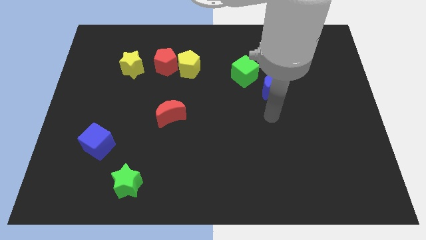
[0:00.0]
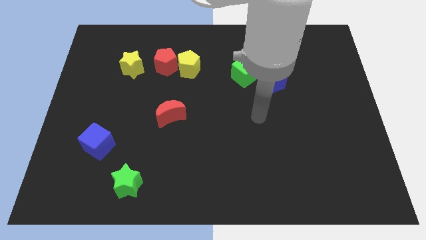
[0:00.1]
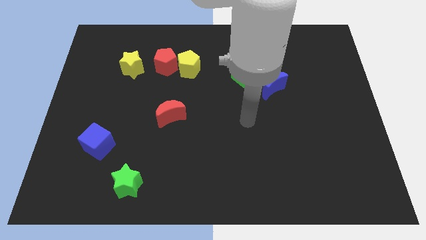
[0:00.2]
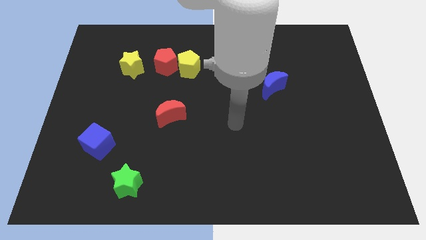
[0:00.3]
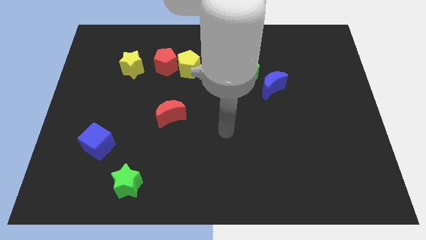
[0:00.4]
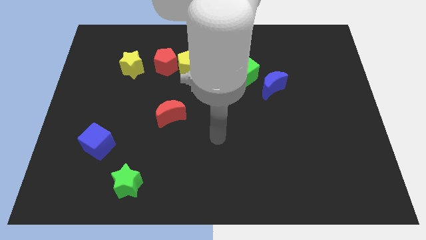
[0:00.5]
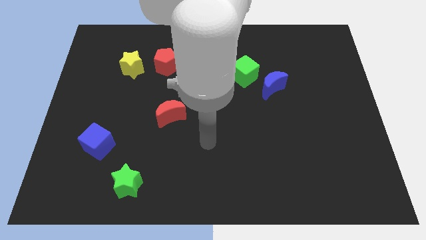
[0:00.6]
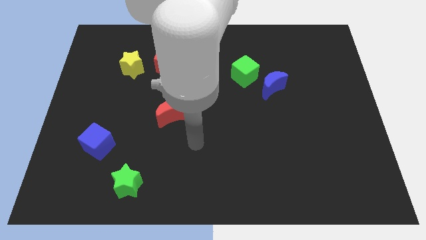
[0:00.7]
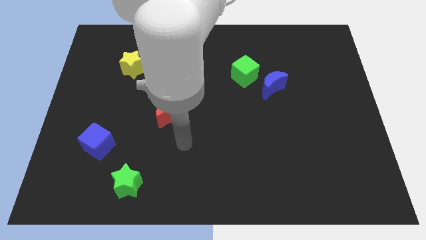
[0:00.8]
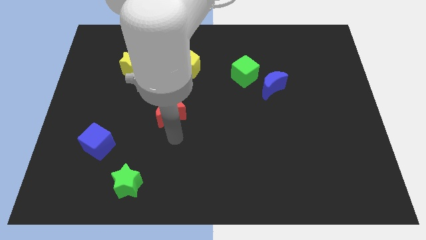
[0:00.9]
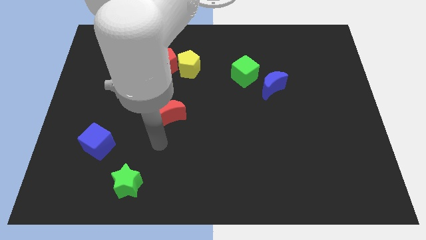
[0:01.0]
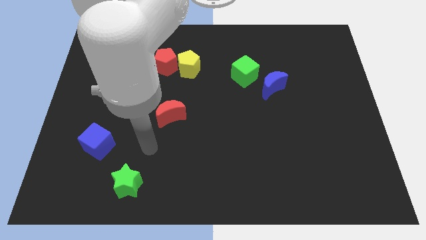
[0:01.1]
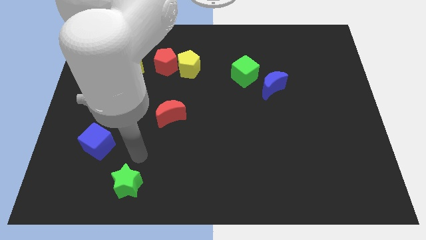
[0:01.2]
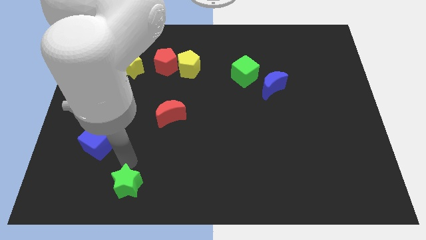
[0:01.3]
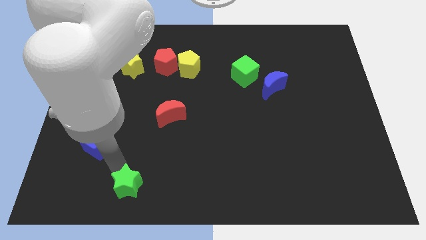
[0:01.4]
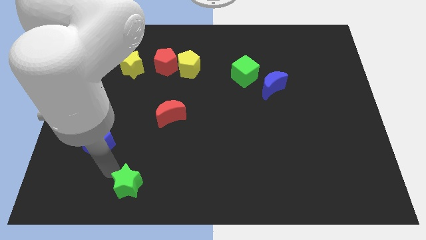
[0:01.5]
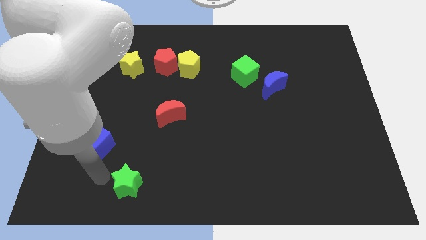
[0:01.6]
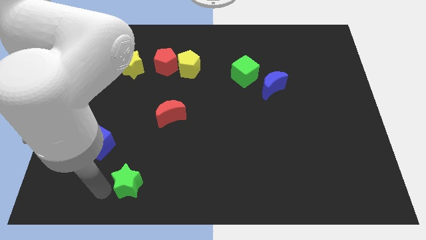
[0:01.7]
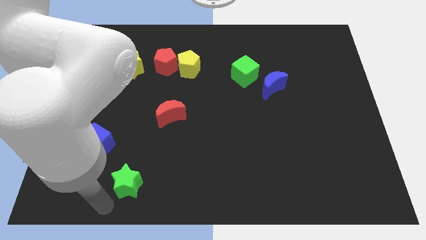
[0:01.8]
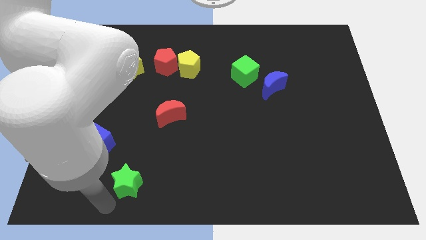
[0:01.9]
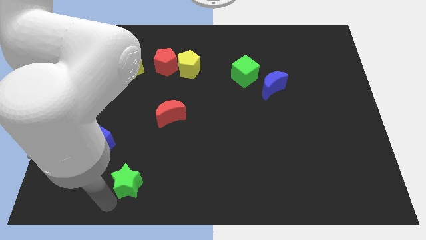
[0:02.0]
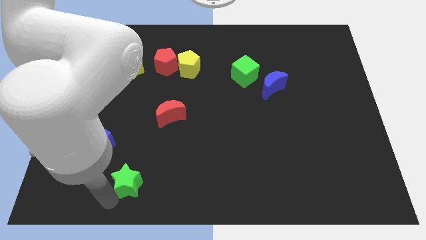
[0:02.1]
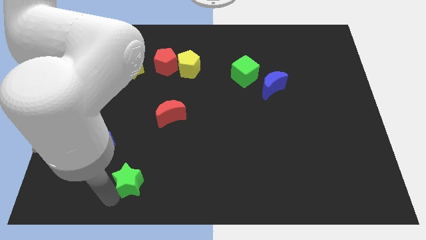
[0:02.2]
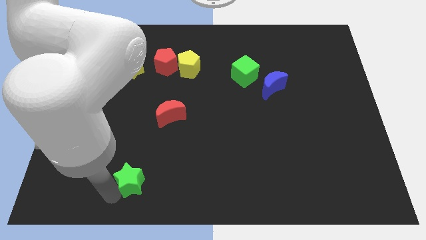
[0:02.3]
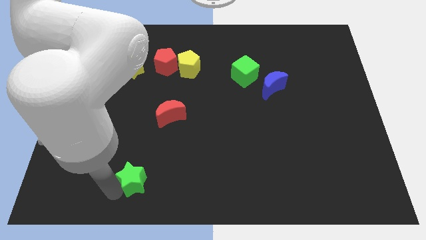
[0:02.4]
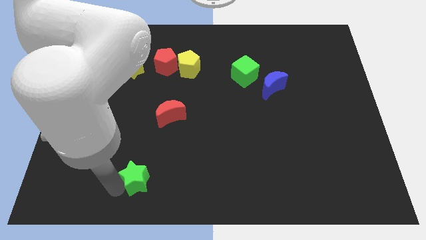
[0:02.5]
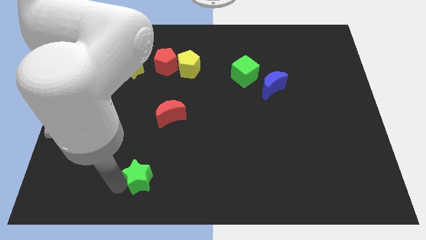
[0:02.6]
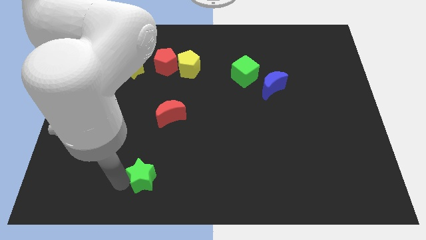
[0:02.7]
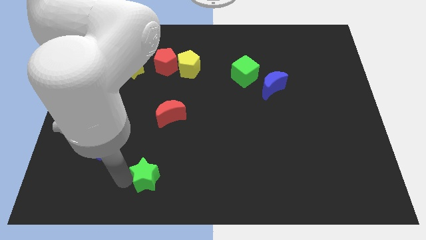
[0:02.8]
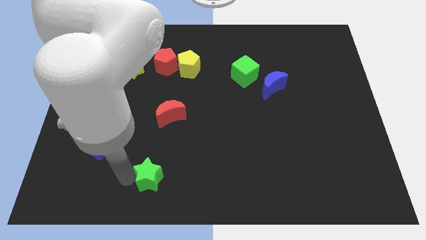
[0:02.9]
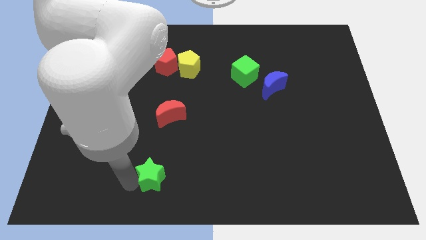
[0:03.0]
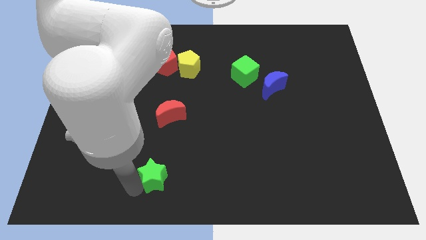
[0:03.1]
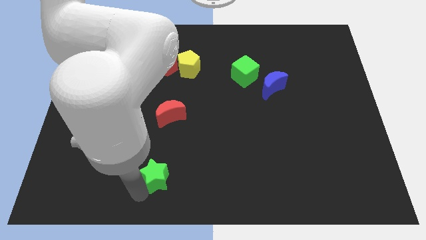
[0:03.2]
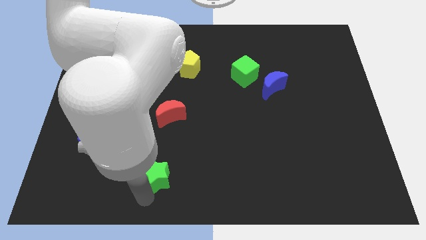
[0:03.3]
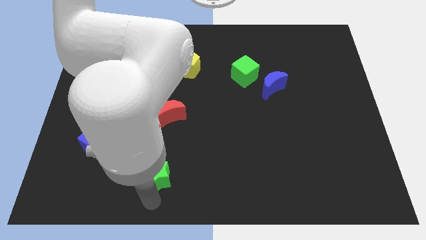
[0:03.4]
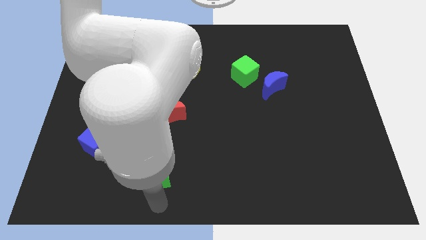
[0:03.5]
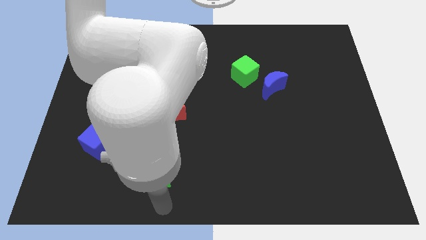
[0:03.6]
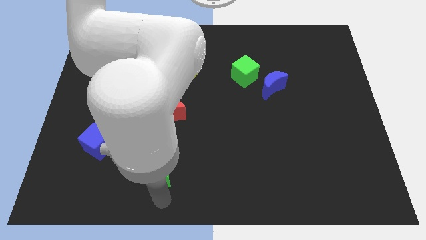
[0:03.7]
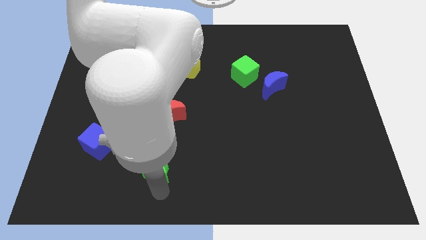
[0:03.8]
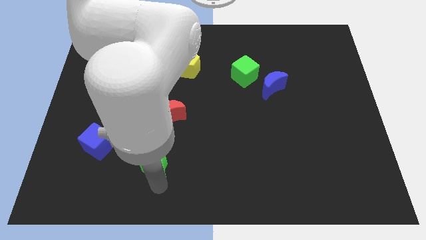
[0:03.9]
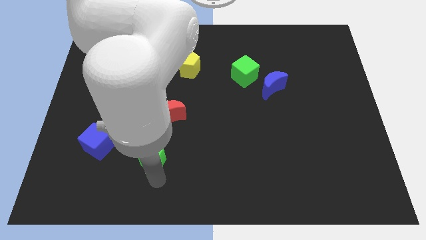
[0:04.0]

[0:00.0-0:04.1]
slightly slide the green star upwards and to the right diagonally

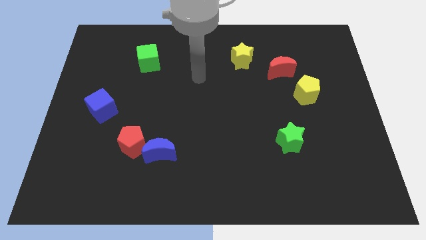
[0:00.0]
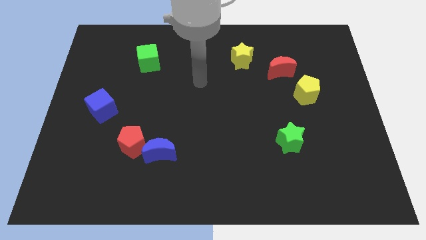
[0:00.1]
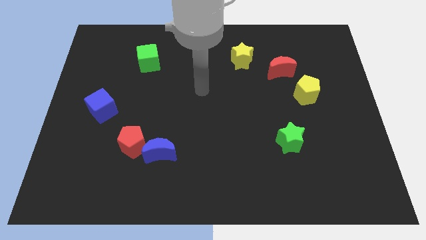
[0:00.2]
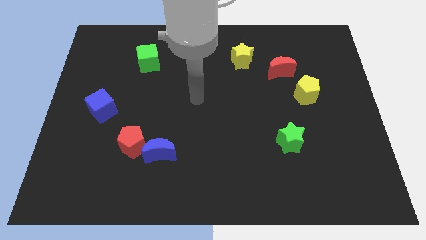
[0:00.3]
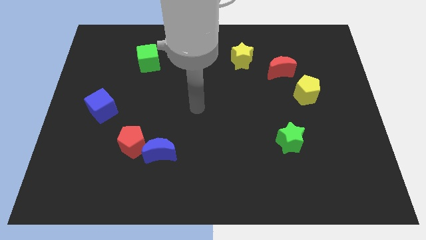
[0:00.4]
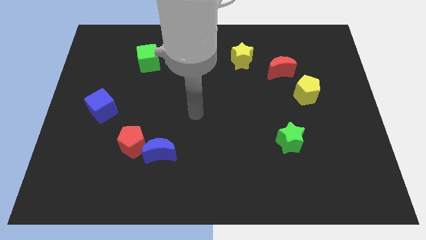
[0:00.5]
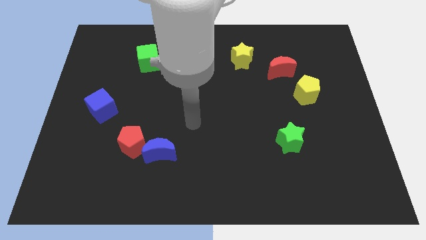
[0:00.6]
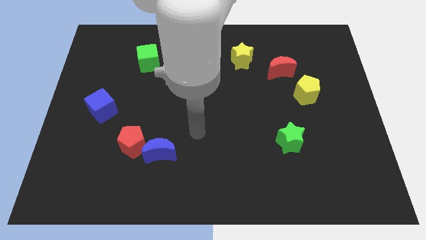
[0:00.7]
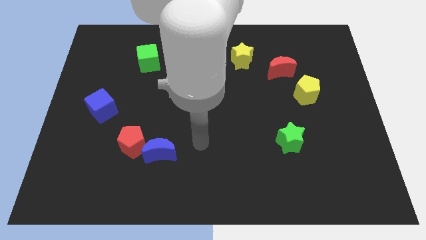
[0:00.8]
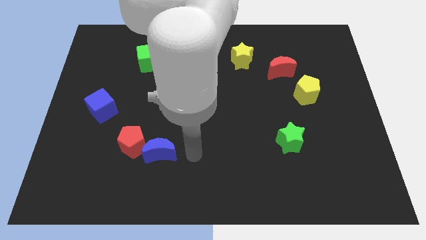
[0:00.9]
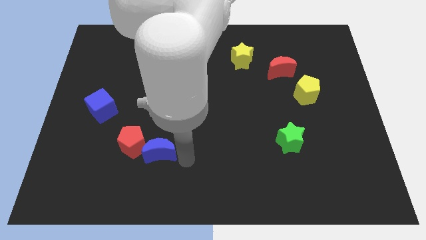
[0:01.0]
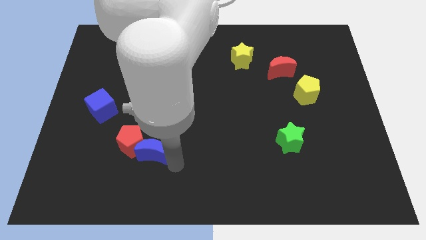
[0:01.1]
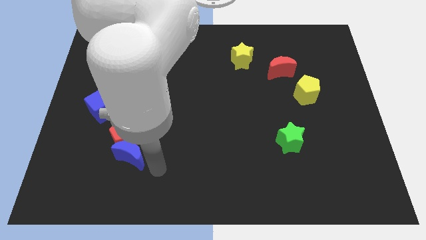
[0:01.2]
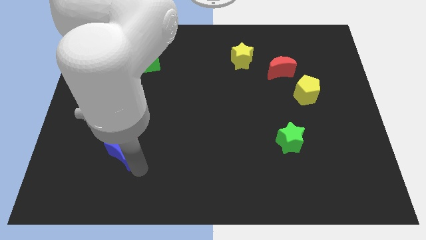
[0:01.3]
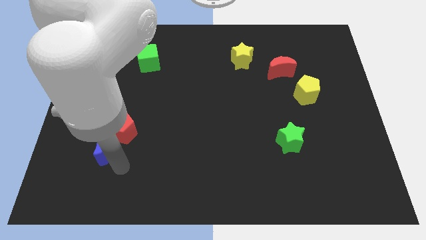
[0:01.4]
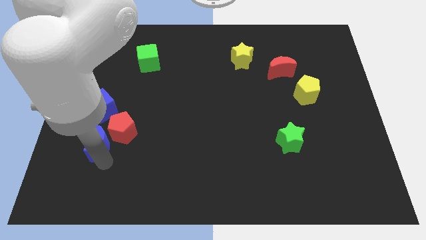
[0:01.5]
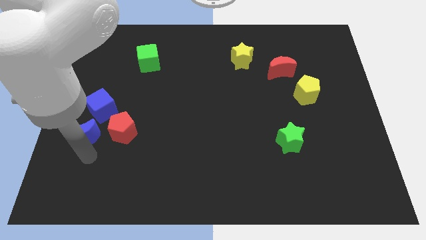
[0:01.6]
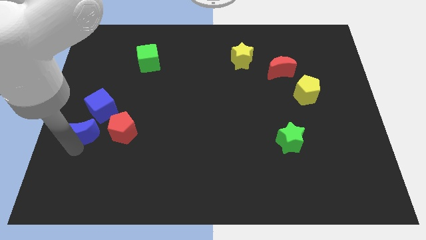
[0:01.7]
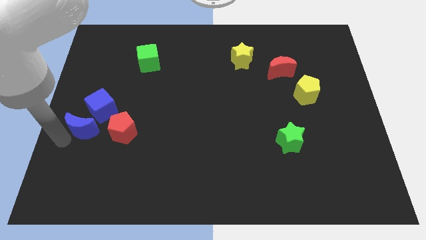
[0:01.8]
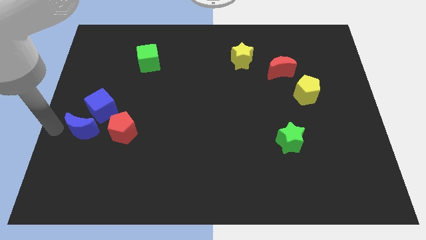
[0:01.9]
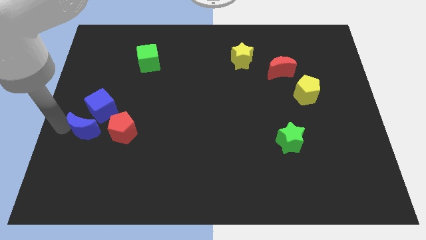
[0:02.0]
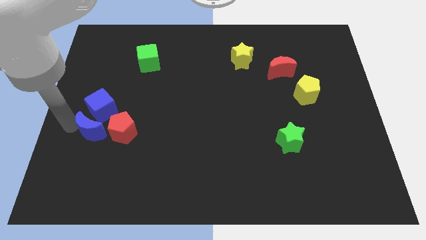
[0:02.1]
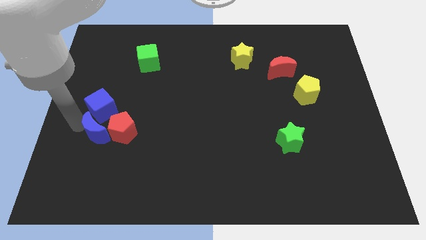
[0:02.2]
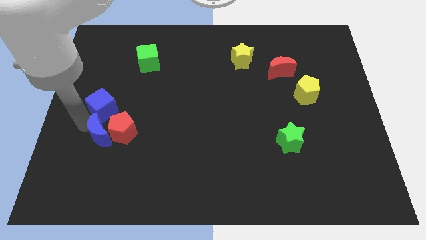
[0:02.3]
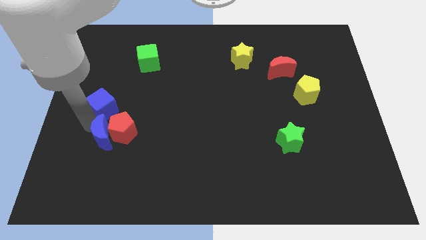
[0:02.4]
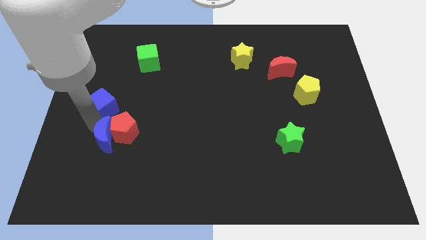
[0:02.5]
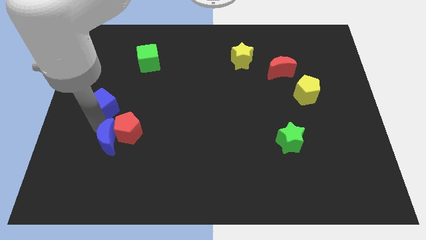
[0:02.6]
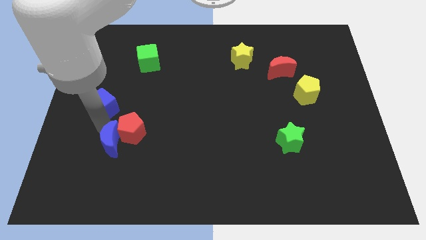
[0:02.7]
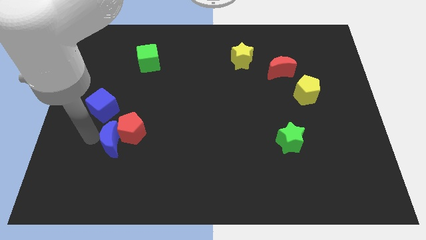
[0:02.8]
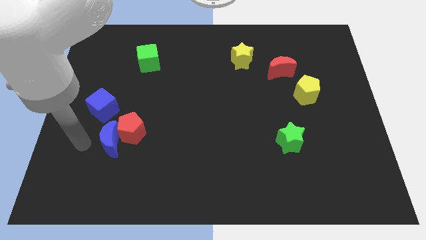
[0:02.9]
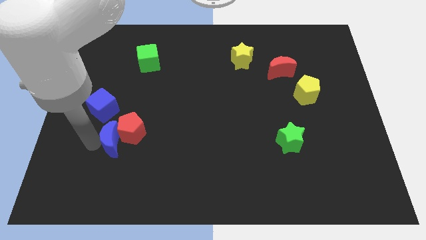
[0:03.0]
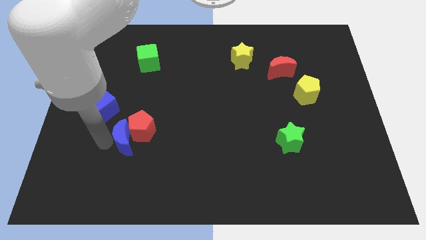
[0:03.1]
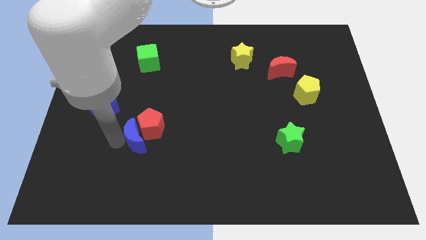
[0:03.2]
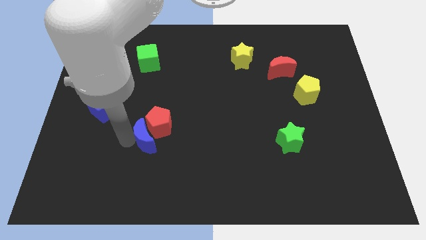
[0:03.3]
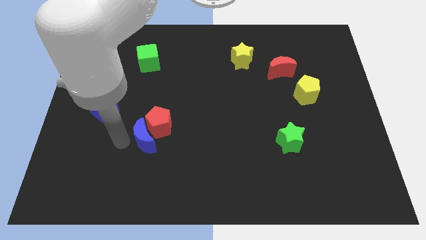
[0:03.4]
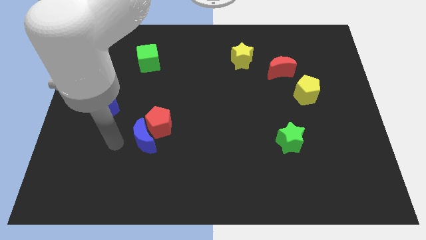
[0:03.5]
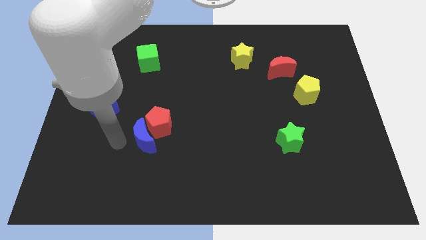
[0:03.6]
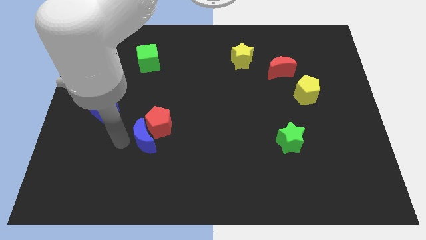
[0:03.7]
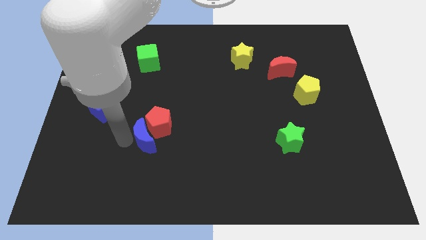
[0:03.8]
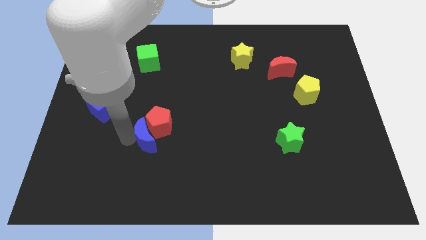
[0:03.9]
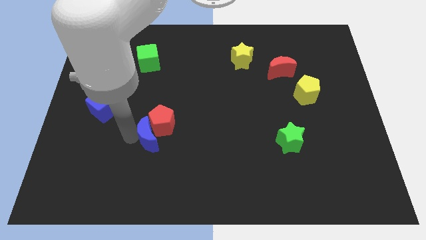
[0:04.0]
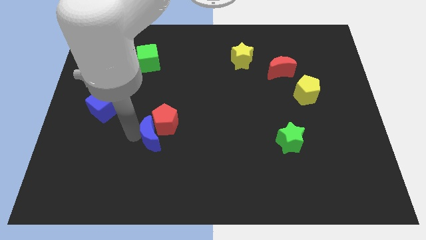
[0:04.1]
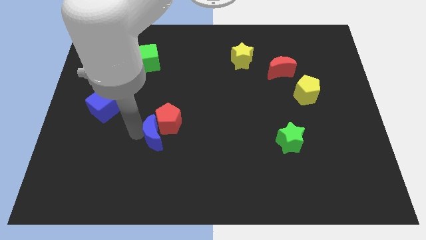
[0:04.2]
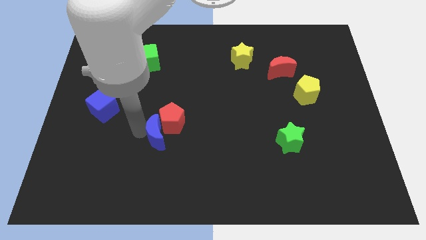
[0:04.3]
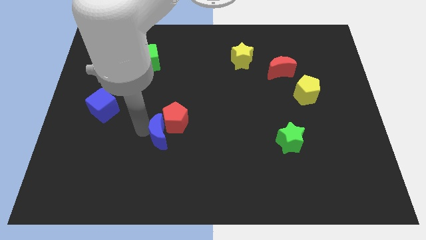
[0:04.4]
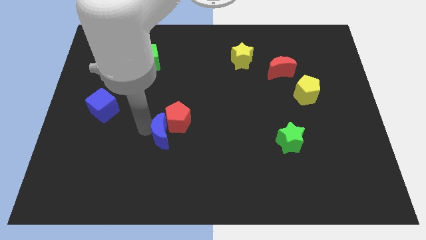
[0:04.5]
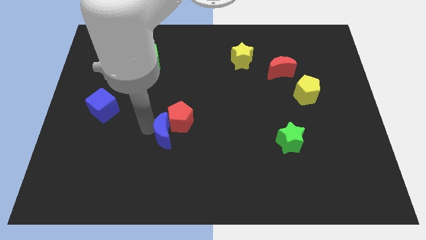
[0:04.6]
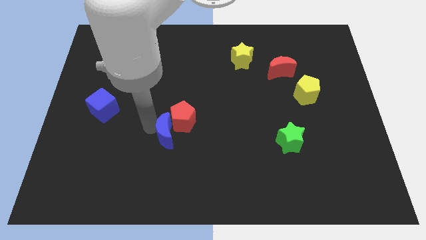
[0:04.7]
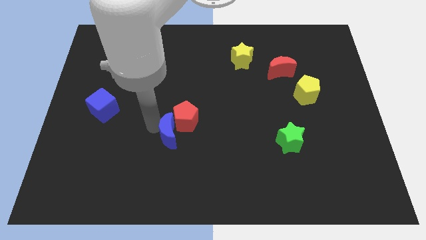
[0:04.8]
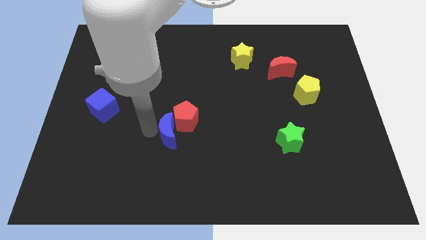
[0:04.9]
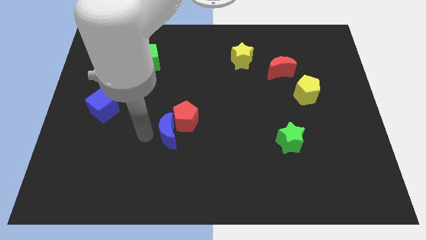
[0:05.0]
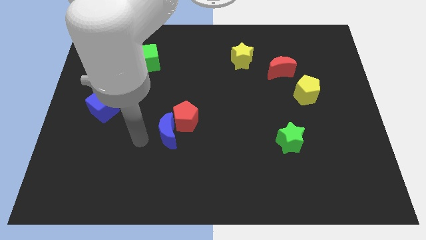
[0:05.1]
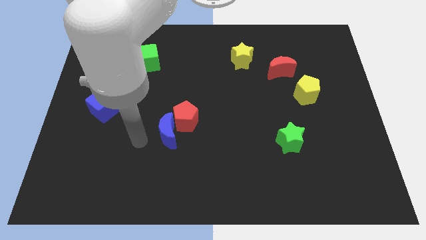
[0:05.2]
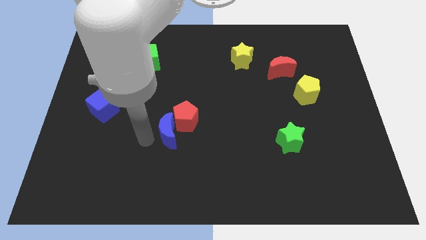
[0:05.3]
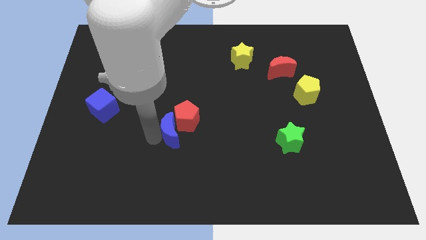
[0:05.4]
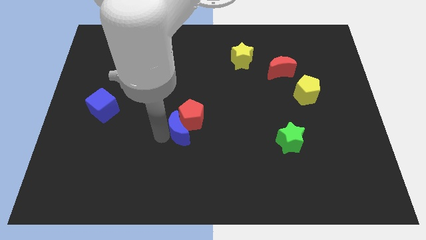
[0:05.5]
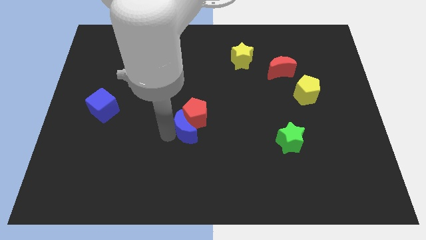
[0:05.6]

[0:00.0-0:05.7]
slightly slide the blue moon diagonally upwards and to the right
